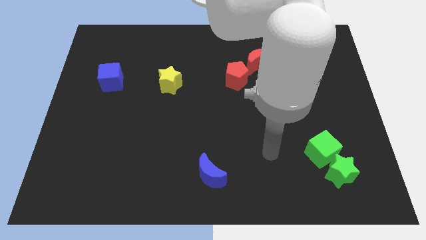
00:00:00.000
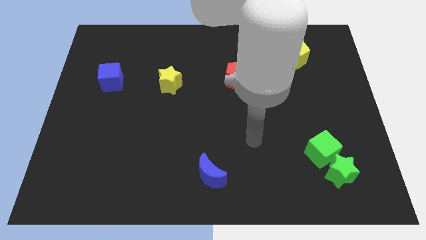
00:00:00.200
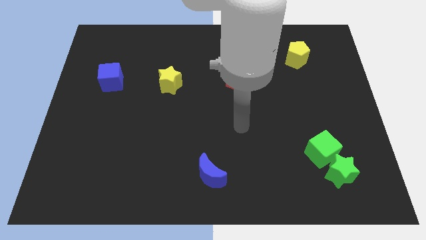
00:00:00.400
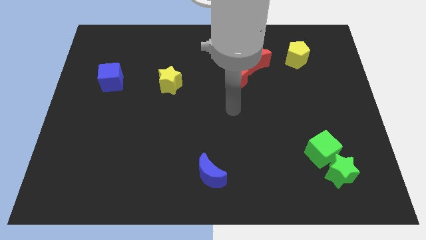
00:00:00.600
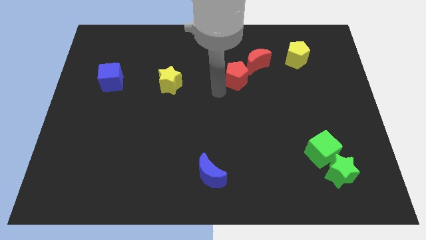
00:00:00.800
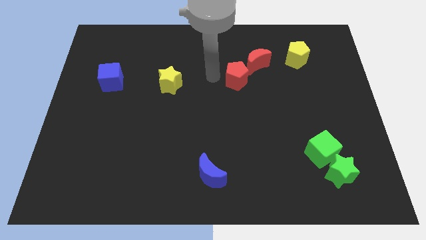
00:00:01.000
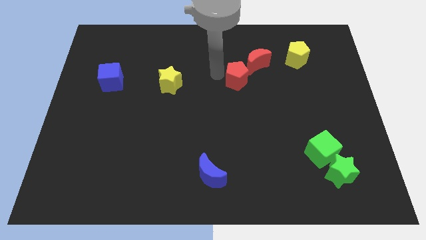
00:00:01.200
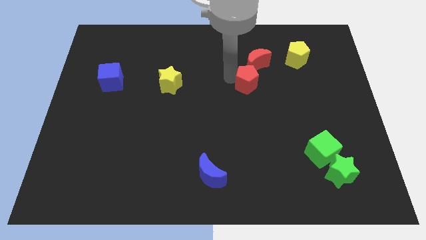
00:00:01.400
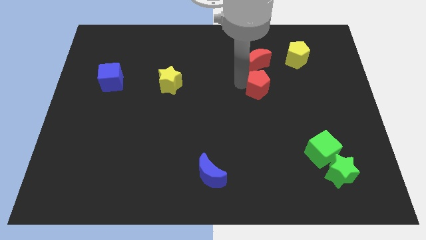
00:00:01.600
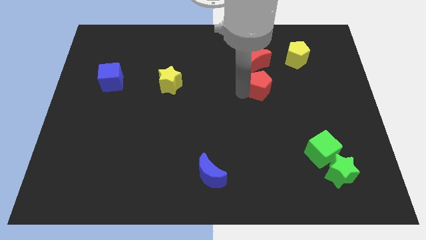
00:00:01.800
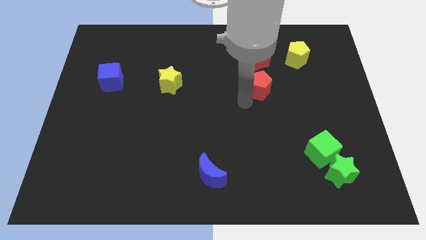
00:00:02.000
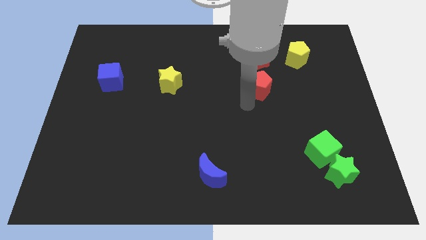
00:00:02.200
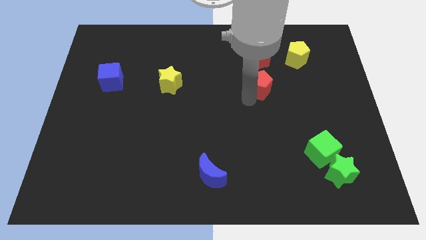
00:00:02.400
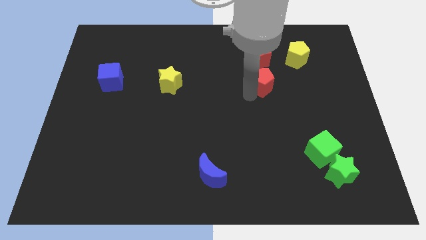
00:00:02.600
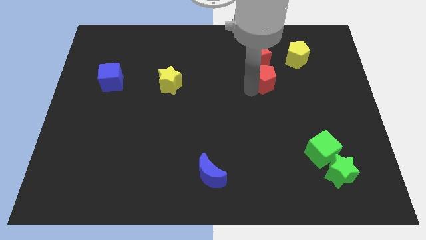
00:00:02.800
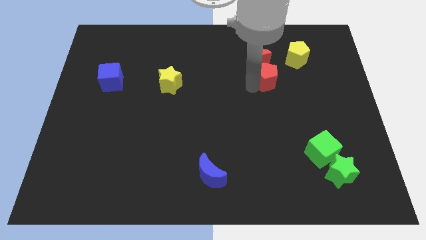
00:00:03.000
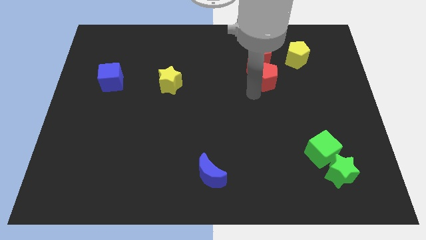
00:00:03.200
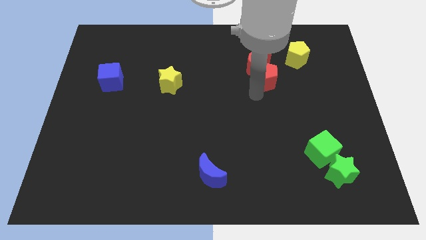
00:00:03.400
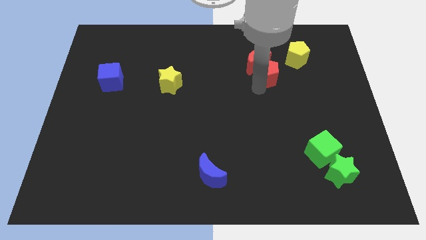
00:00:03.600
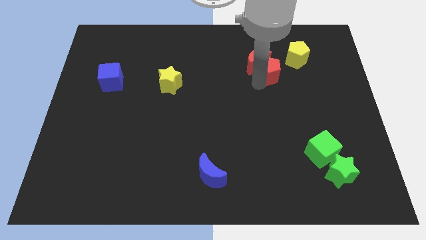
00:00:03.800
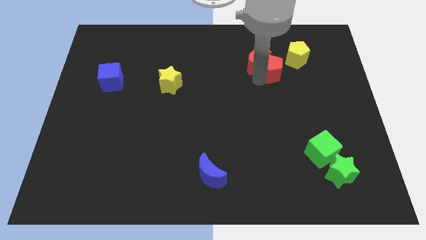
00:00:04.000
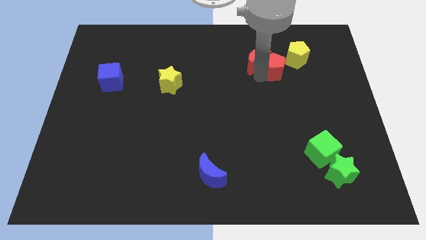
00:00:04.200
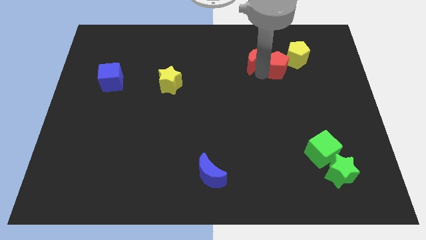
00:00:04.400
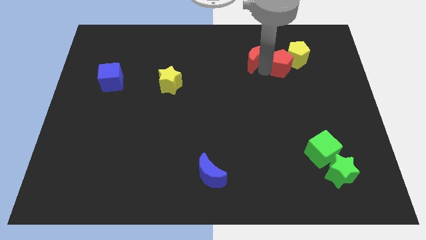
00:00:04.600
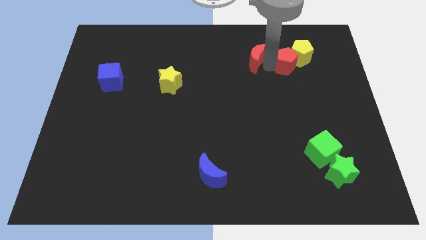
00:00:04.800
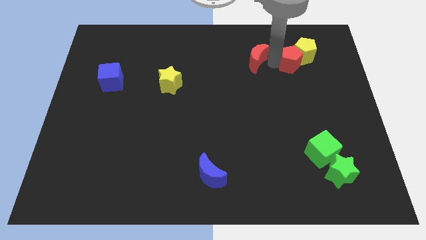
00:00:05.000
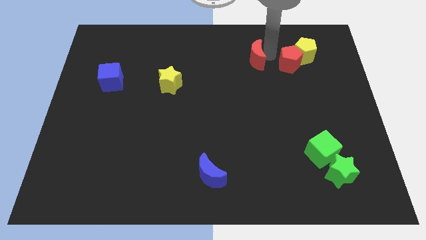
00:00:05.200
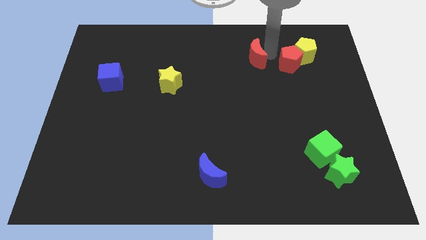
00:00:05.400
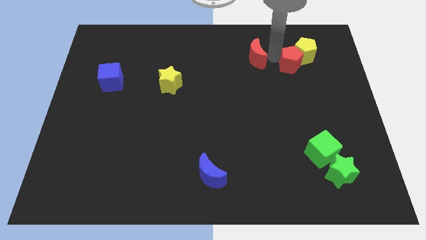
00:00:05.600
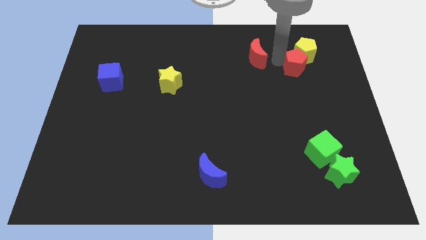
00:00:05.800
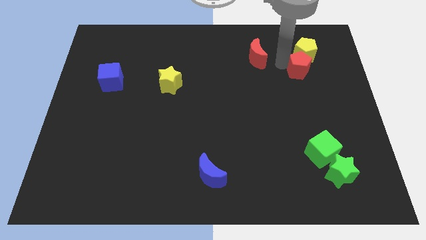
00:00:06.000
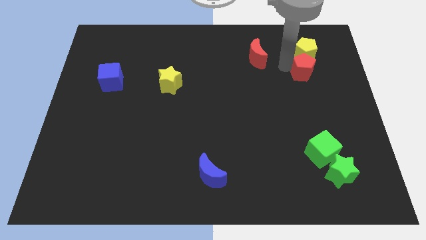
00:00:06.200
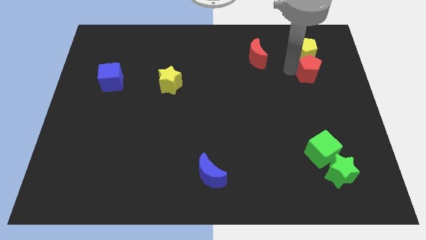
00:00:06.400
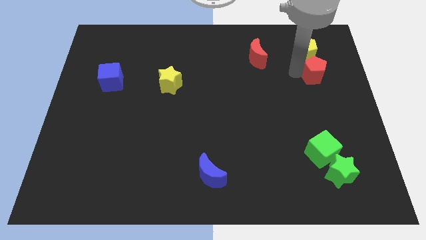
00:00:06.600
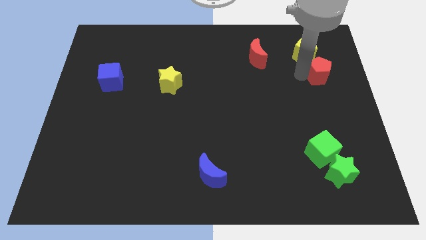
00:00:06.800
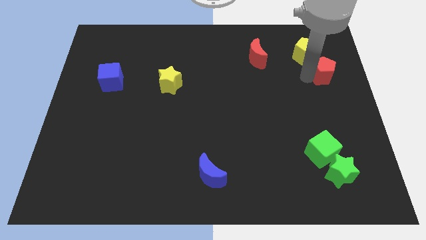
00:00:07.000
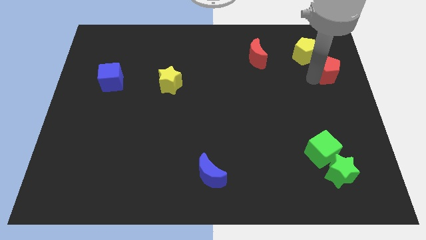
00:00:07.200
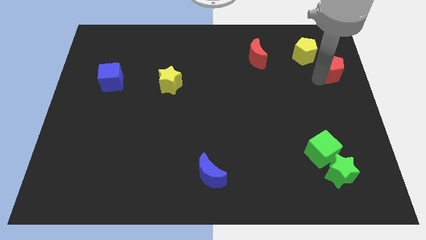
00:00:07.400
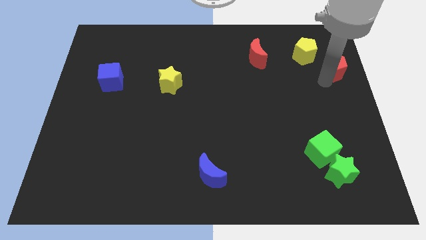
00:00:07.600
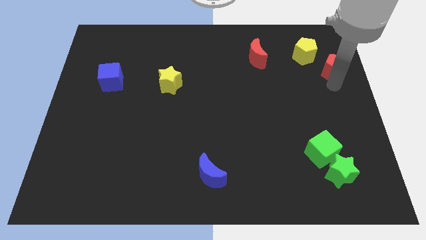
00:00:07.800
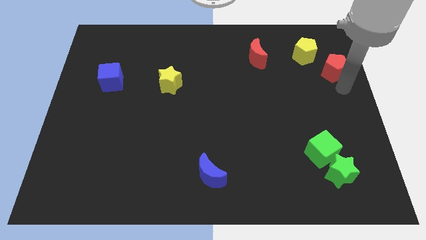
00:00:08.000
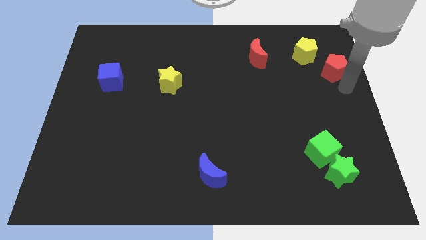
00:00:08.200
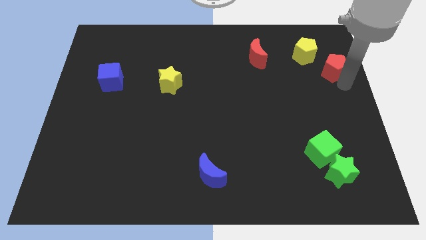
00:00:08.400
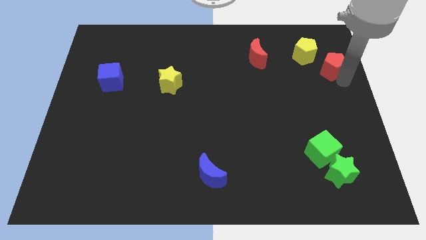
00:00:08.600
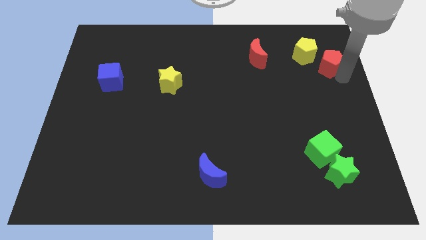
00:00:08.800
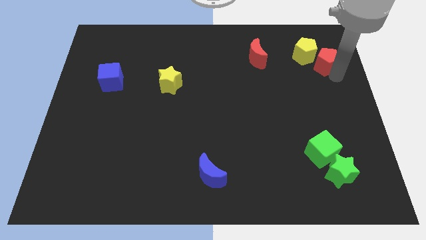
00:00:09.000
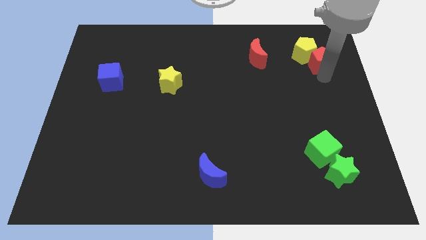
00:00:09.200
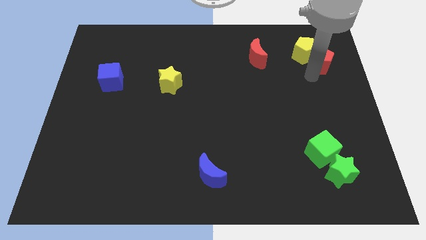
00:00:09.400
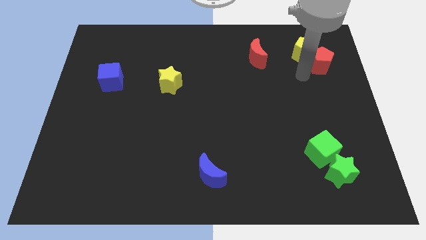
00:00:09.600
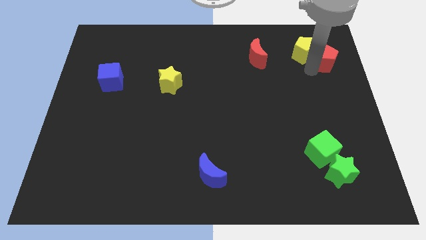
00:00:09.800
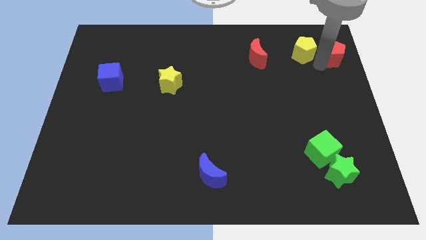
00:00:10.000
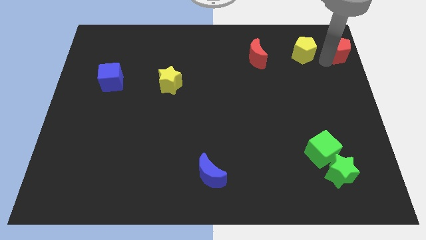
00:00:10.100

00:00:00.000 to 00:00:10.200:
move the red pentagon to the top right corner
